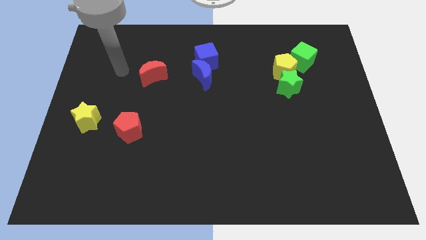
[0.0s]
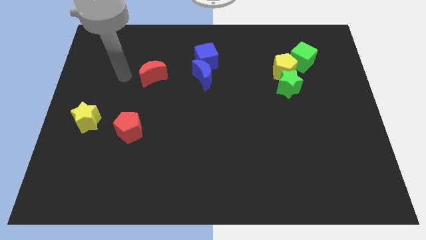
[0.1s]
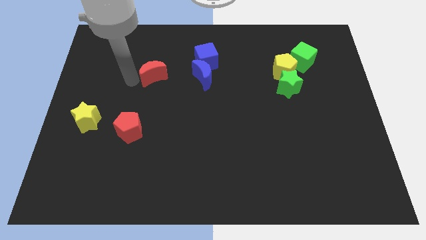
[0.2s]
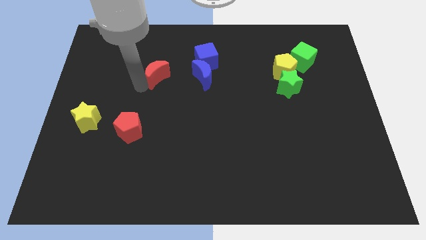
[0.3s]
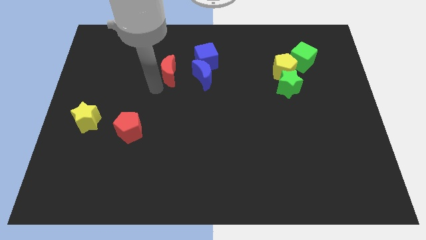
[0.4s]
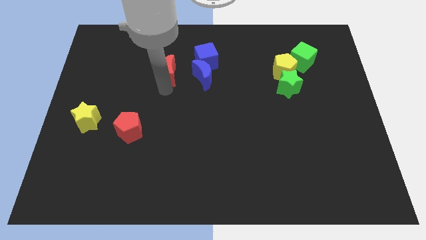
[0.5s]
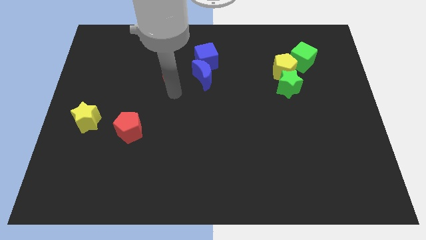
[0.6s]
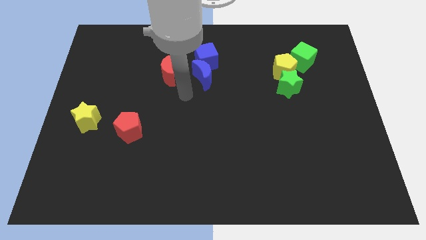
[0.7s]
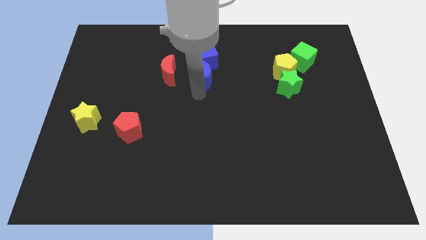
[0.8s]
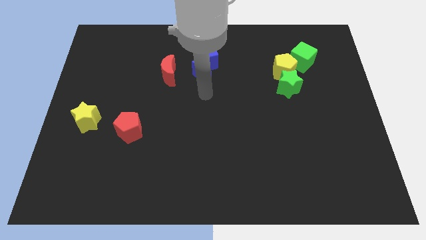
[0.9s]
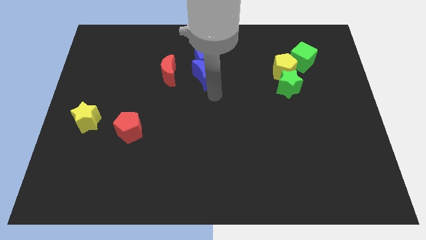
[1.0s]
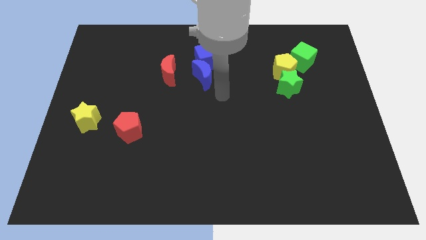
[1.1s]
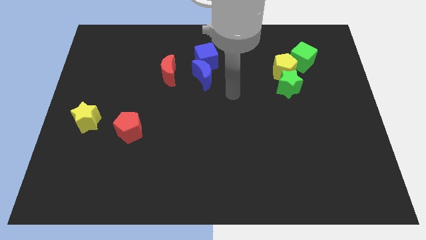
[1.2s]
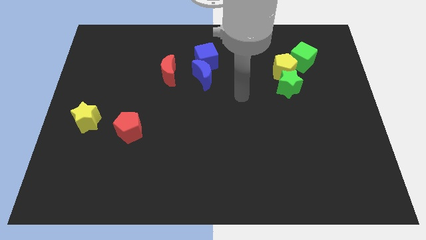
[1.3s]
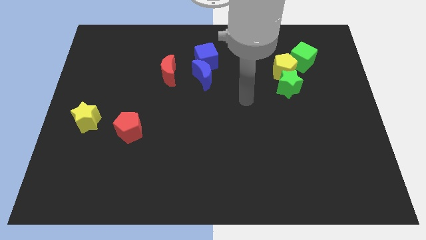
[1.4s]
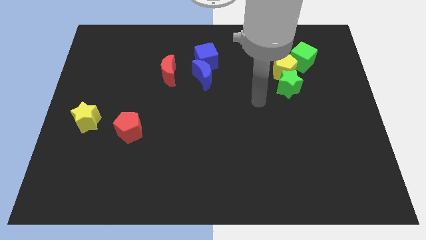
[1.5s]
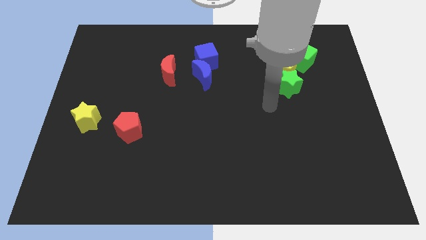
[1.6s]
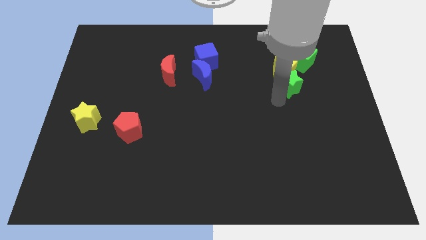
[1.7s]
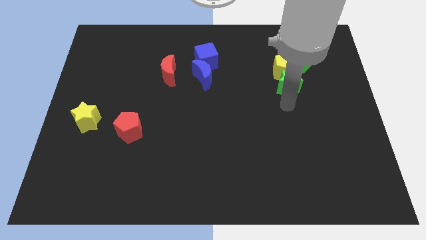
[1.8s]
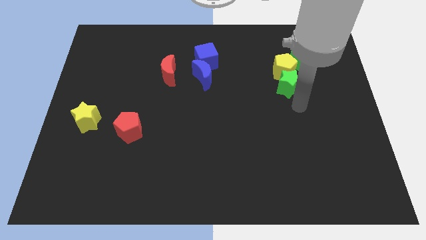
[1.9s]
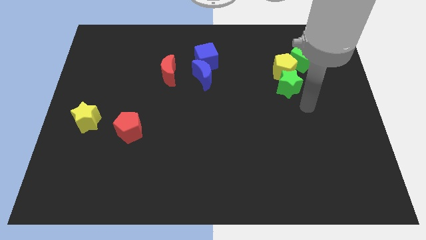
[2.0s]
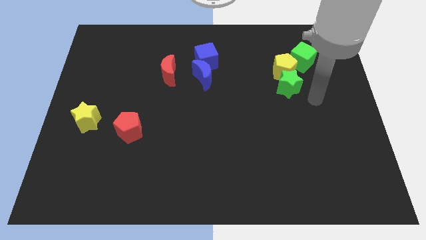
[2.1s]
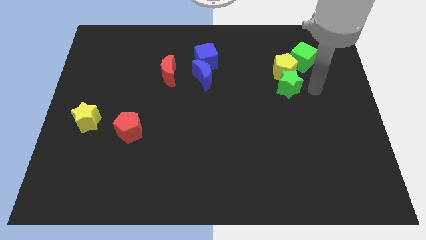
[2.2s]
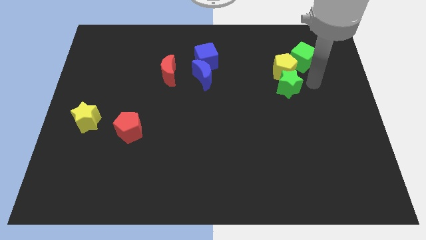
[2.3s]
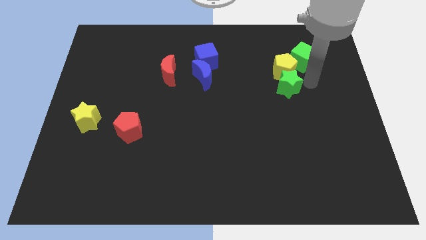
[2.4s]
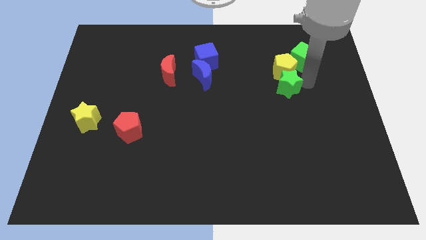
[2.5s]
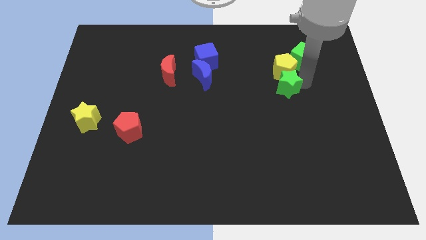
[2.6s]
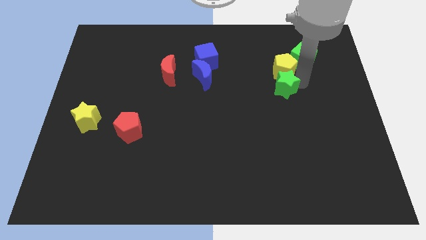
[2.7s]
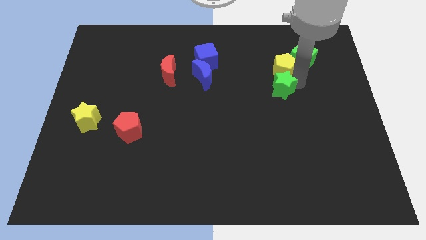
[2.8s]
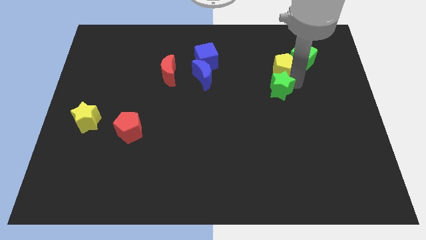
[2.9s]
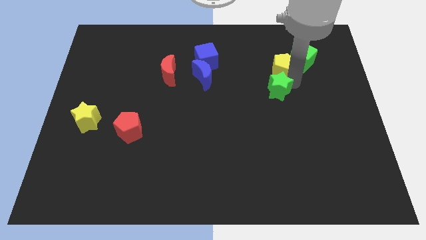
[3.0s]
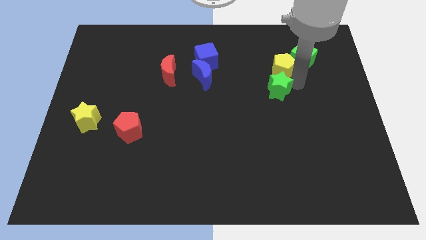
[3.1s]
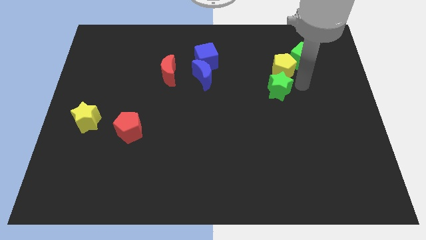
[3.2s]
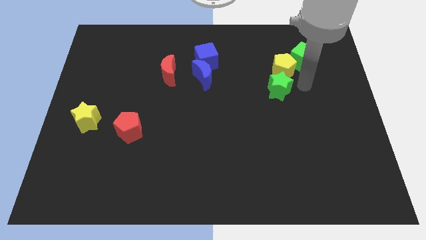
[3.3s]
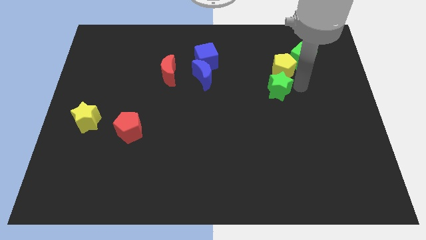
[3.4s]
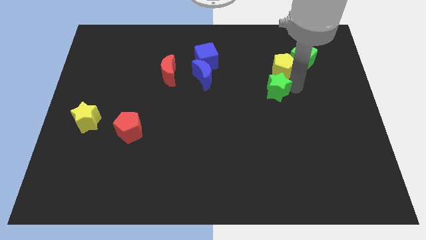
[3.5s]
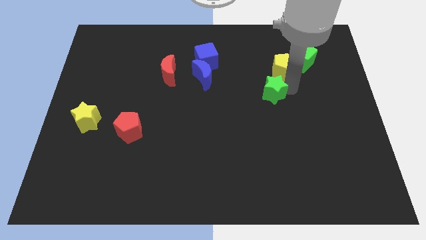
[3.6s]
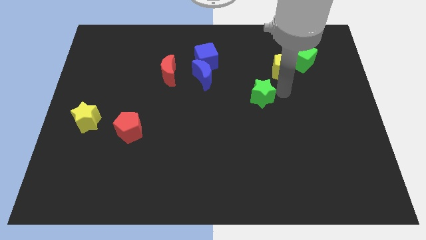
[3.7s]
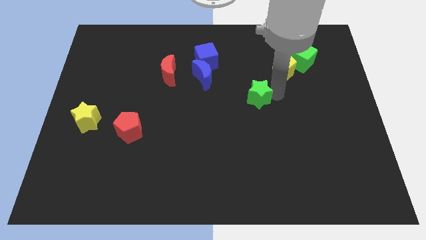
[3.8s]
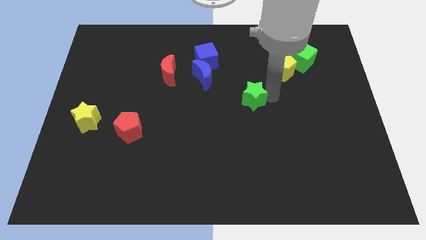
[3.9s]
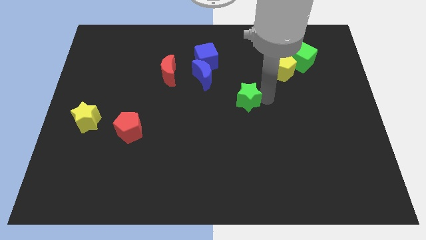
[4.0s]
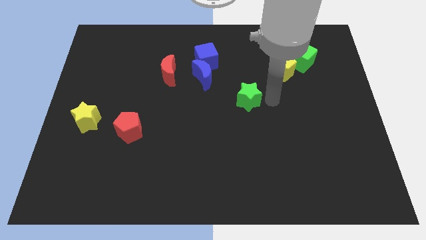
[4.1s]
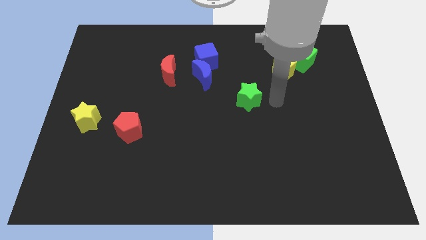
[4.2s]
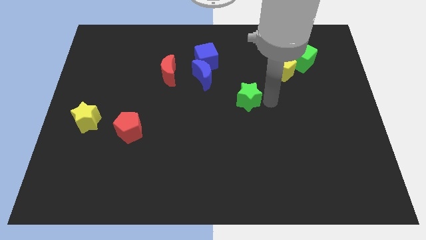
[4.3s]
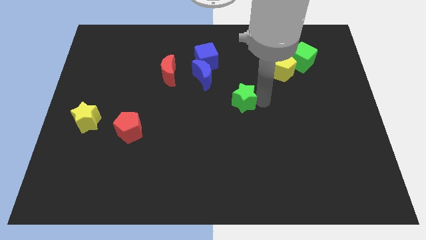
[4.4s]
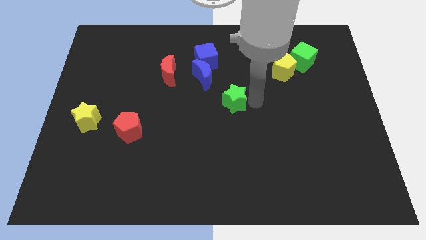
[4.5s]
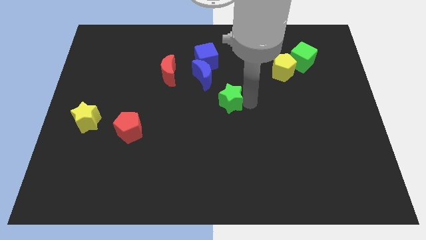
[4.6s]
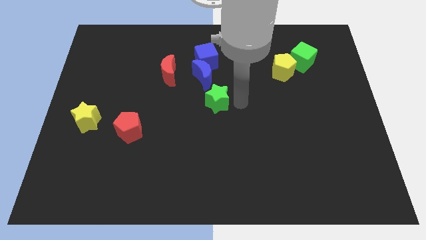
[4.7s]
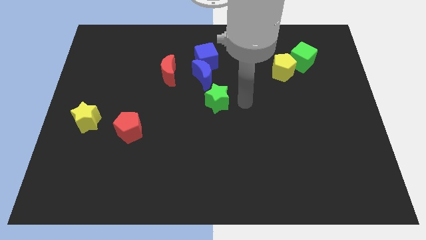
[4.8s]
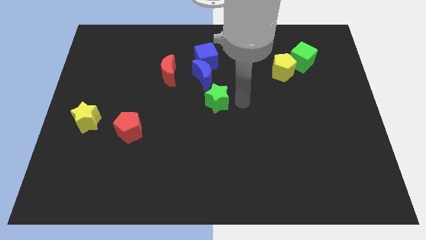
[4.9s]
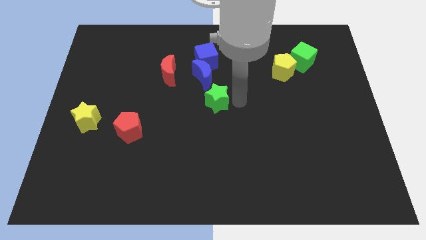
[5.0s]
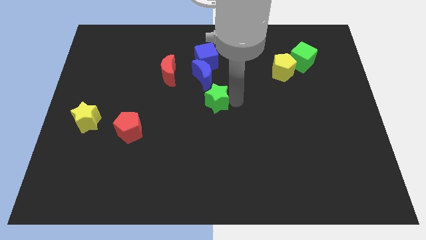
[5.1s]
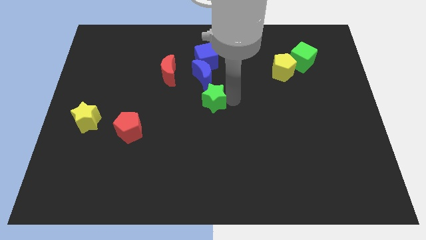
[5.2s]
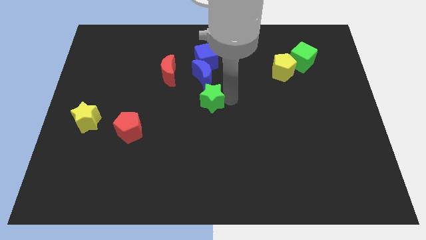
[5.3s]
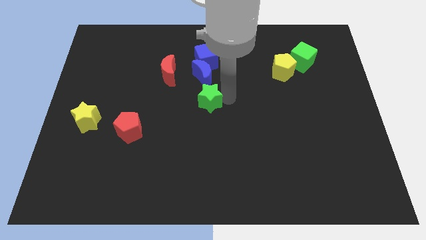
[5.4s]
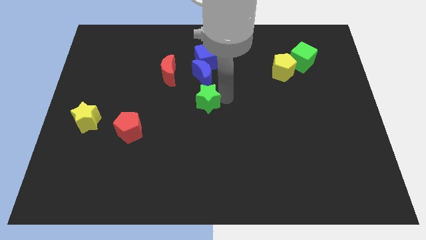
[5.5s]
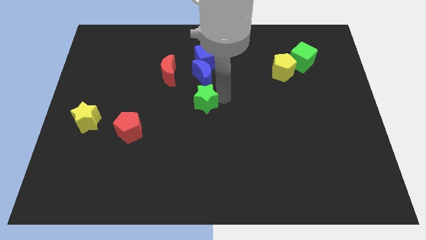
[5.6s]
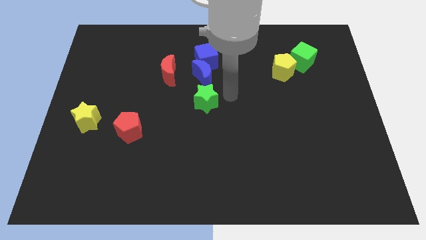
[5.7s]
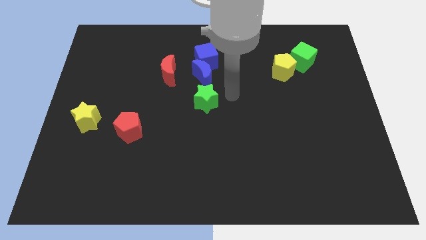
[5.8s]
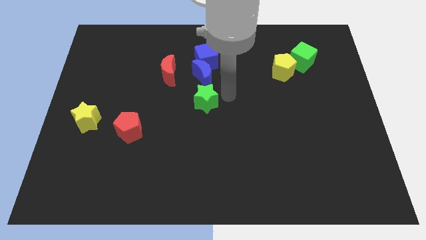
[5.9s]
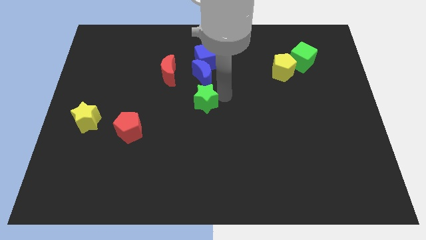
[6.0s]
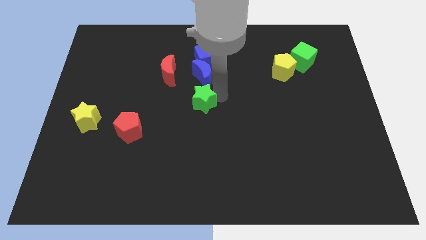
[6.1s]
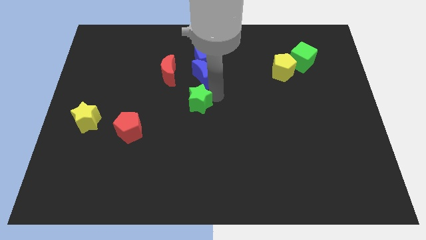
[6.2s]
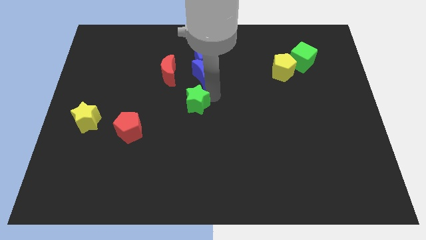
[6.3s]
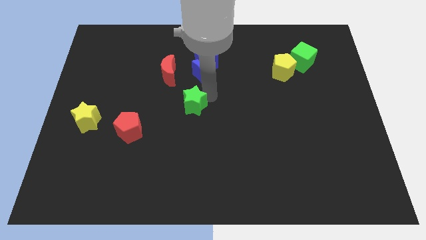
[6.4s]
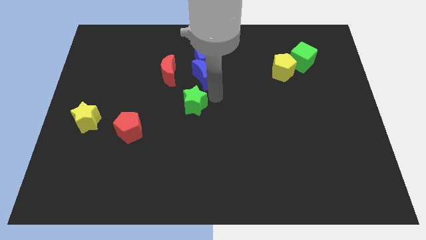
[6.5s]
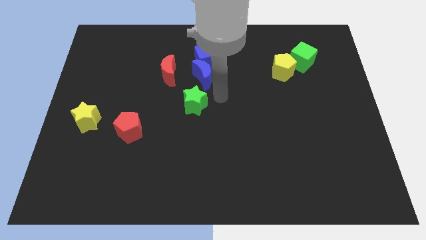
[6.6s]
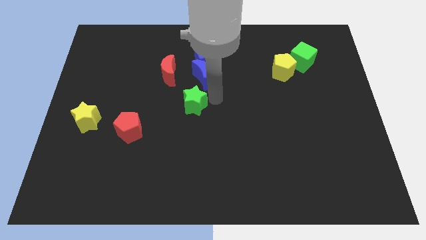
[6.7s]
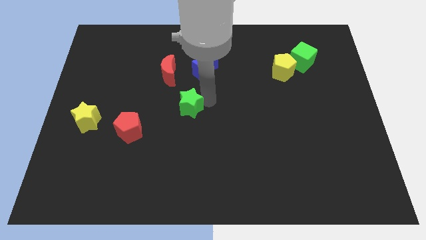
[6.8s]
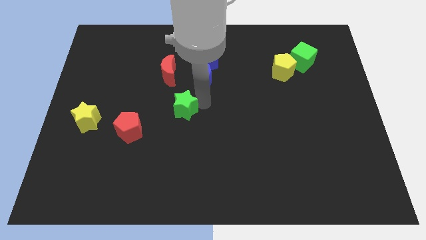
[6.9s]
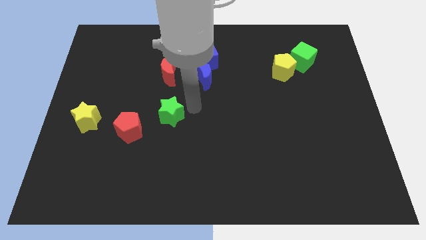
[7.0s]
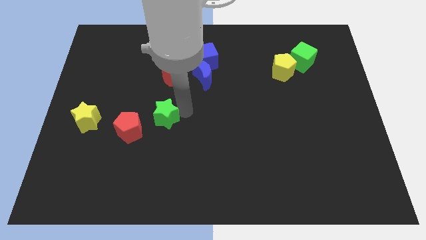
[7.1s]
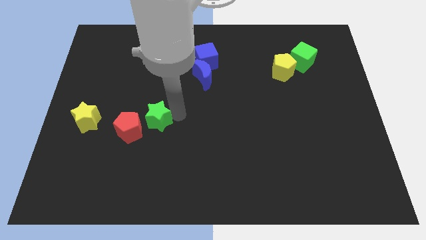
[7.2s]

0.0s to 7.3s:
move the green star to the right side of the yellow star
